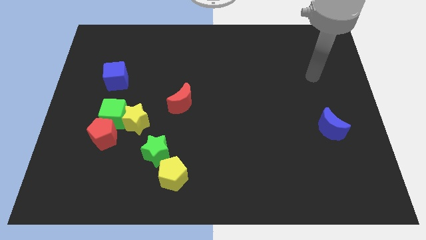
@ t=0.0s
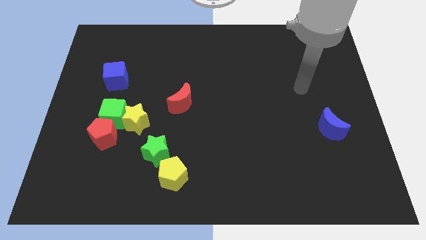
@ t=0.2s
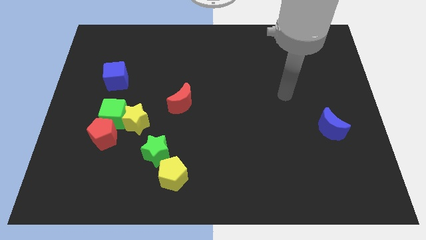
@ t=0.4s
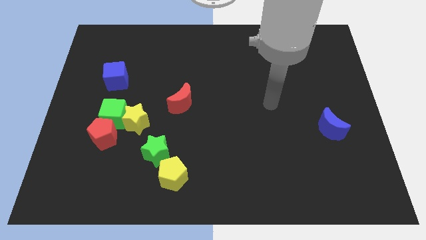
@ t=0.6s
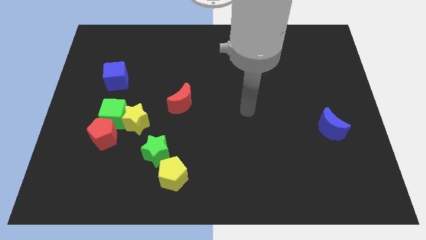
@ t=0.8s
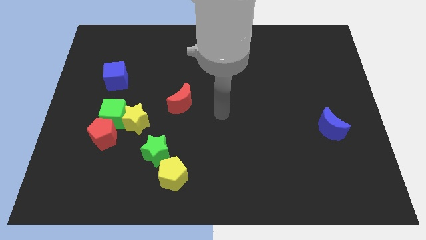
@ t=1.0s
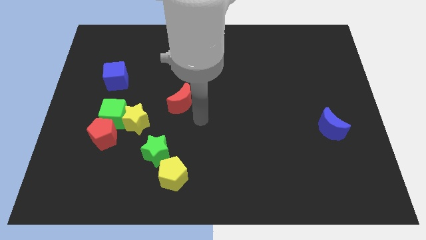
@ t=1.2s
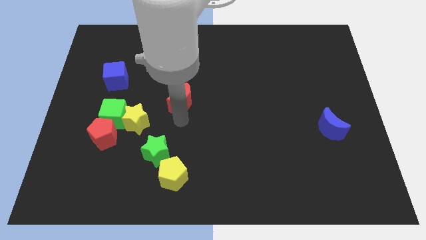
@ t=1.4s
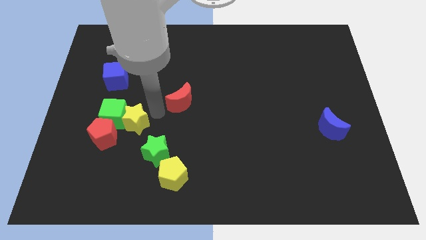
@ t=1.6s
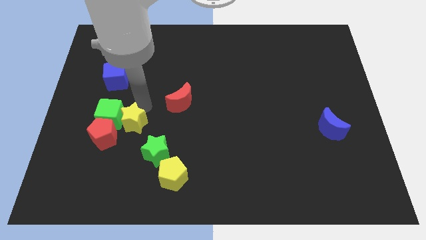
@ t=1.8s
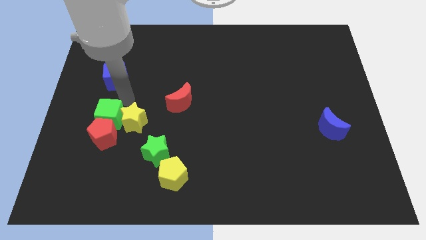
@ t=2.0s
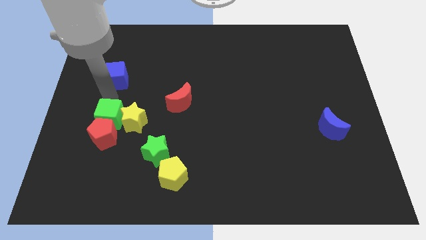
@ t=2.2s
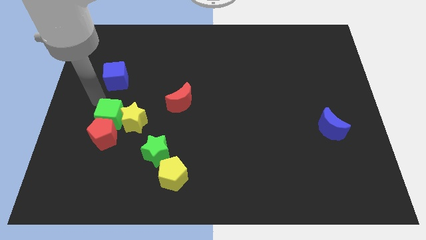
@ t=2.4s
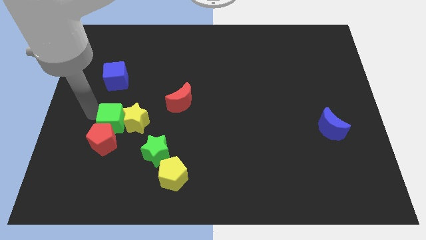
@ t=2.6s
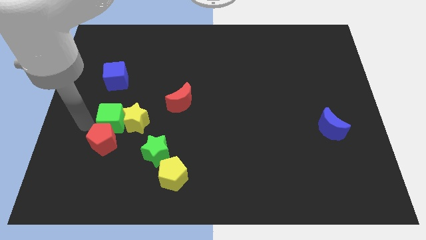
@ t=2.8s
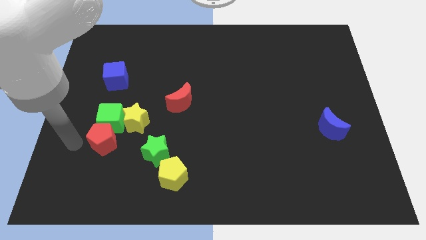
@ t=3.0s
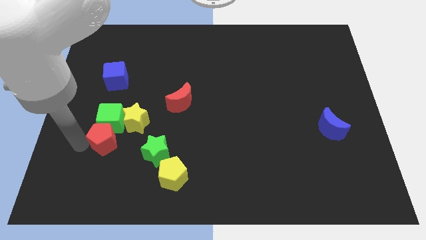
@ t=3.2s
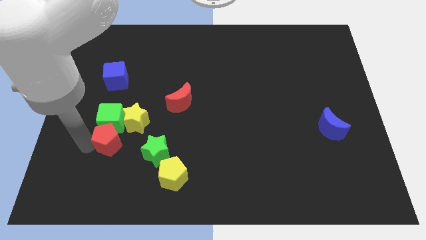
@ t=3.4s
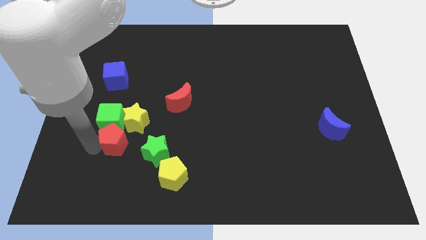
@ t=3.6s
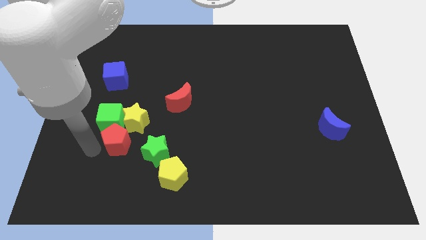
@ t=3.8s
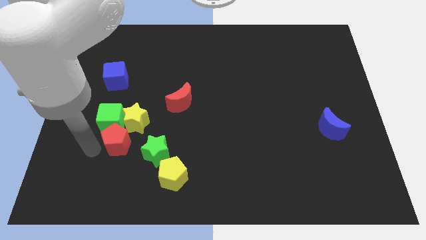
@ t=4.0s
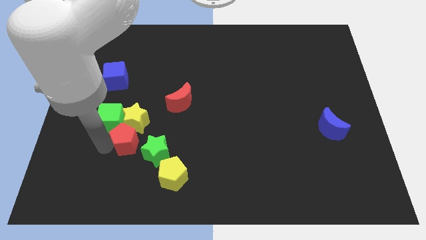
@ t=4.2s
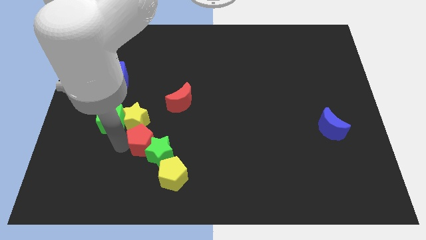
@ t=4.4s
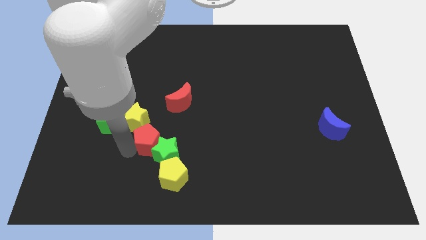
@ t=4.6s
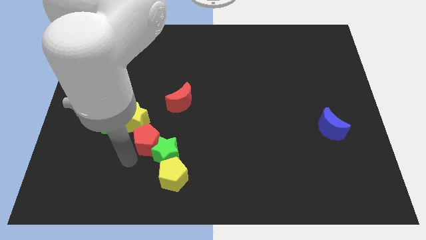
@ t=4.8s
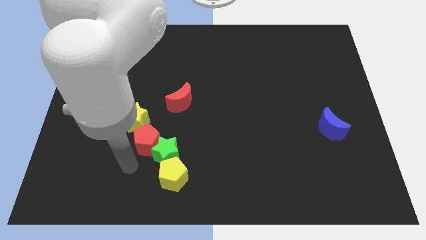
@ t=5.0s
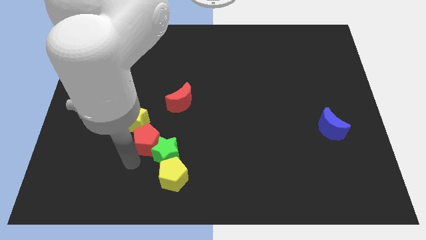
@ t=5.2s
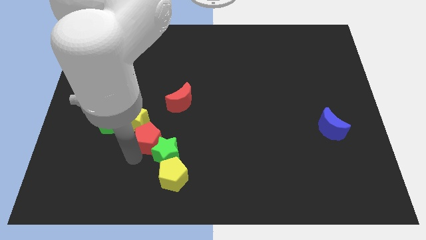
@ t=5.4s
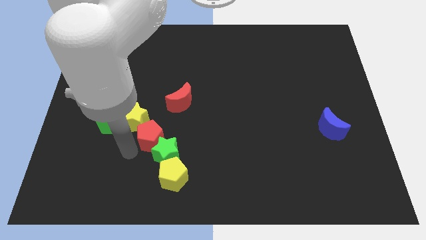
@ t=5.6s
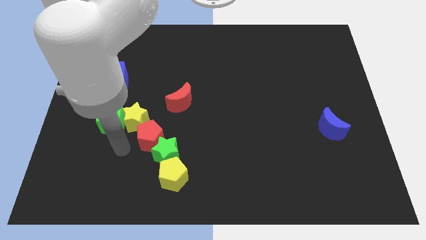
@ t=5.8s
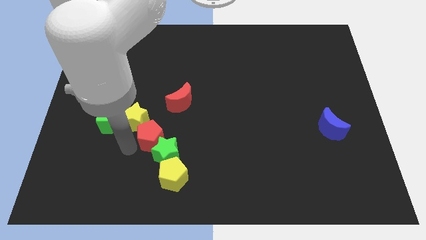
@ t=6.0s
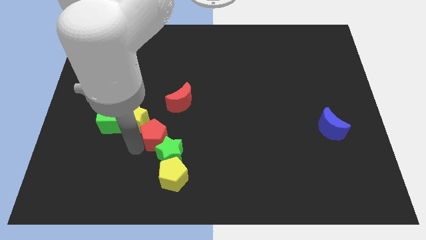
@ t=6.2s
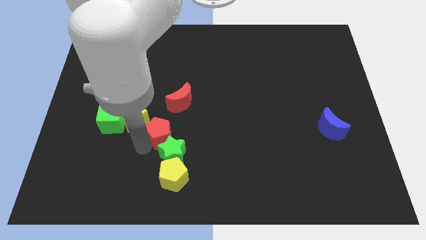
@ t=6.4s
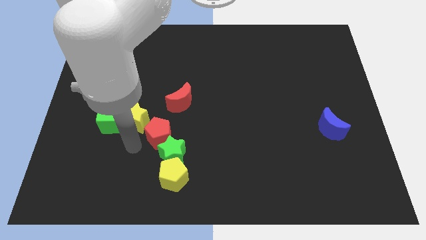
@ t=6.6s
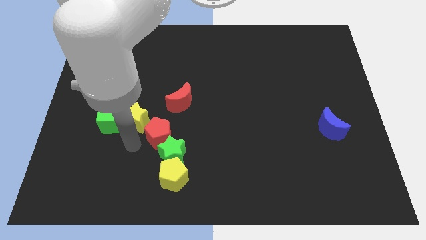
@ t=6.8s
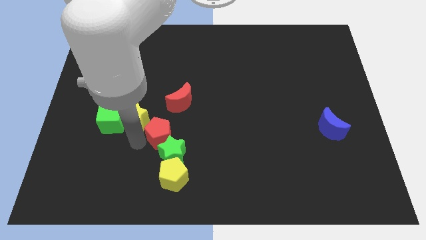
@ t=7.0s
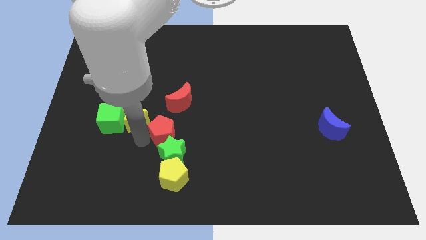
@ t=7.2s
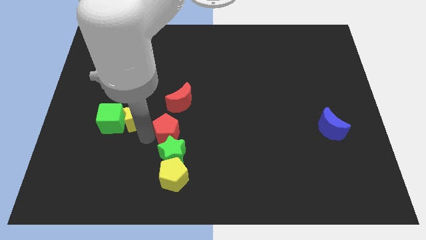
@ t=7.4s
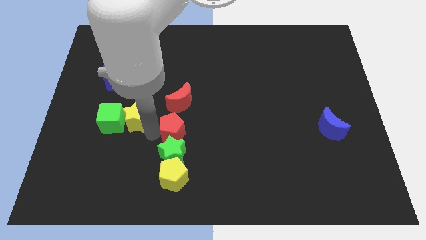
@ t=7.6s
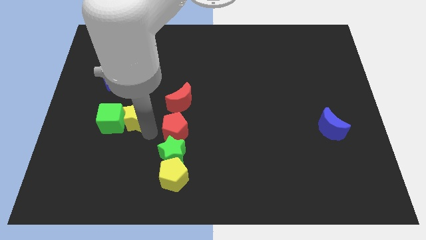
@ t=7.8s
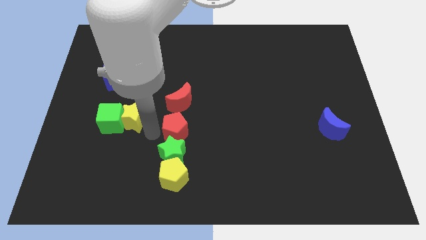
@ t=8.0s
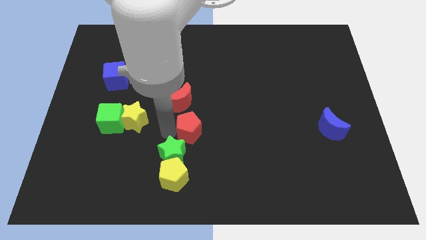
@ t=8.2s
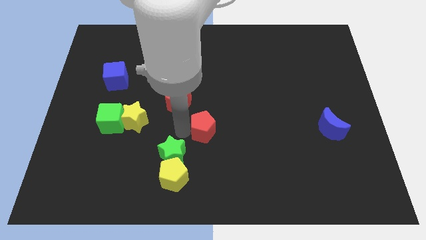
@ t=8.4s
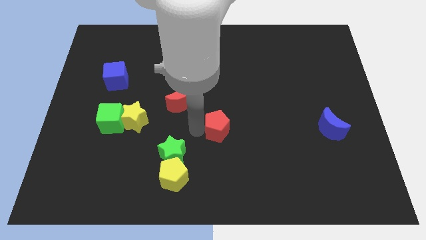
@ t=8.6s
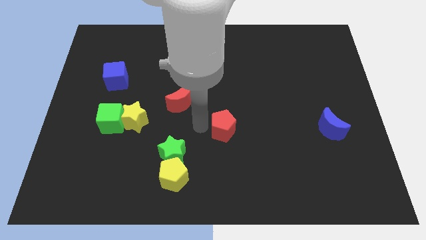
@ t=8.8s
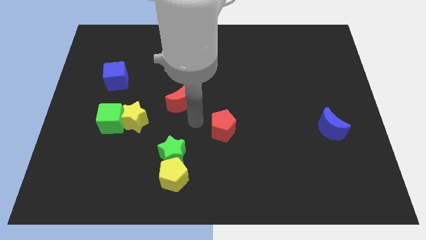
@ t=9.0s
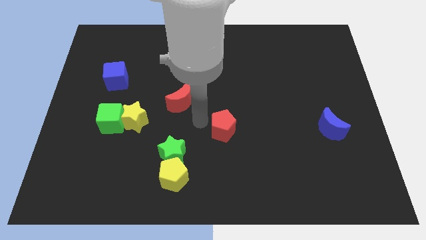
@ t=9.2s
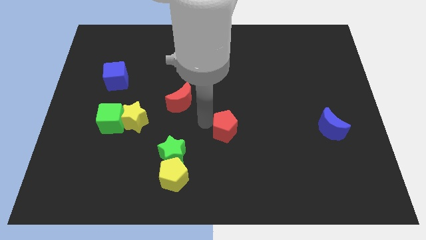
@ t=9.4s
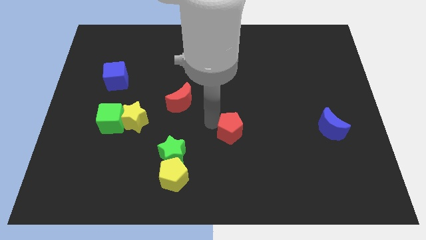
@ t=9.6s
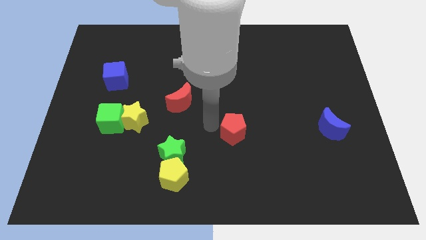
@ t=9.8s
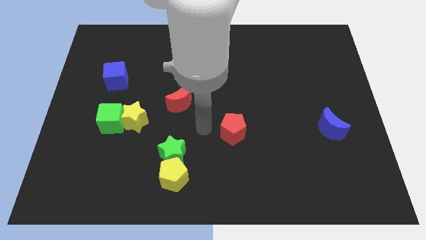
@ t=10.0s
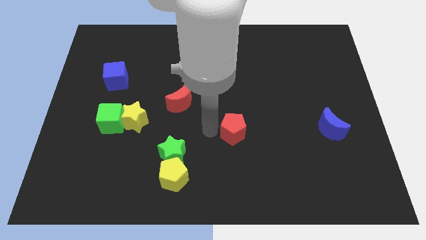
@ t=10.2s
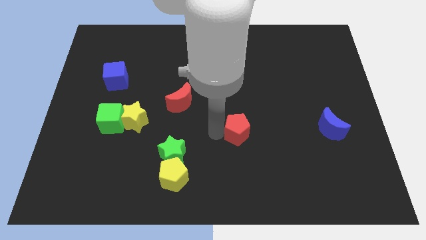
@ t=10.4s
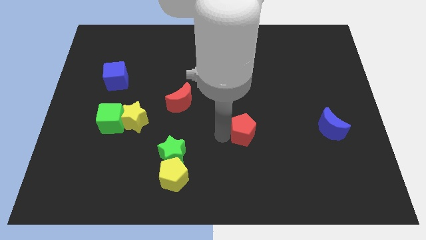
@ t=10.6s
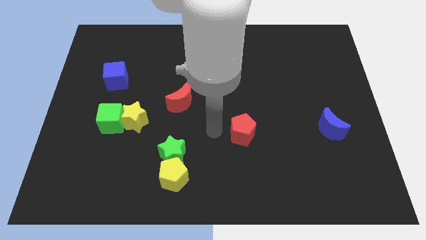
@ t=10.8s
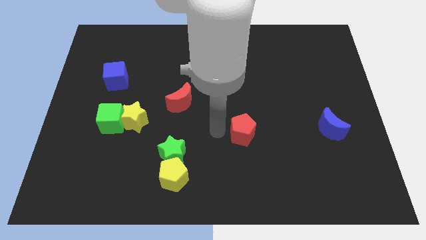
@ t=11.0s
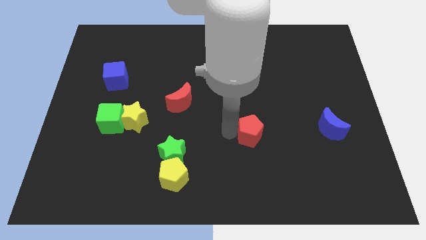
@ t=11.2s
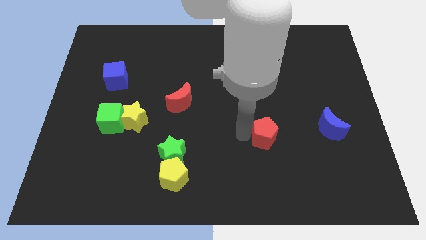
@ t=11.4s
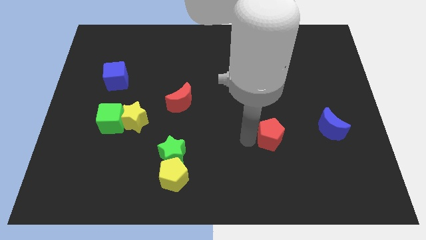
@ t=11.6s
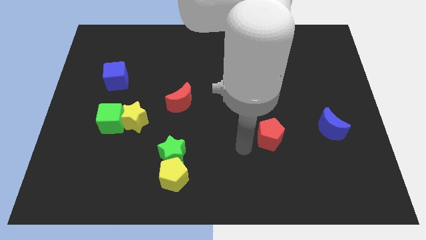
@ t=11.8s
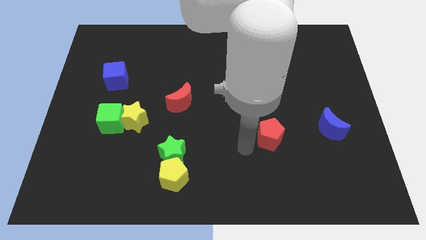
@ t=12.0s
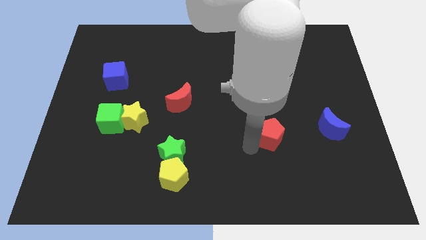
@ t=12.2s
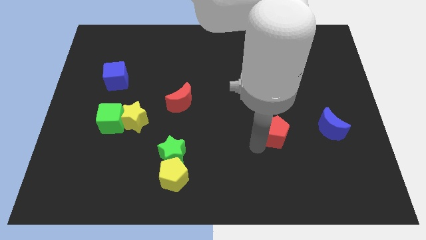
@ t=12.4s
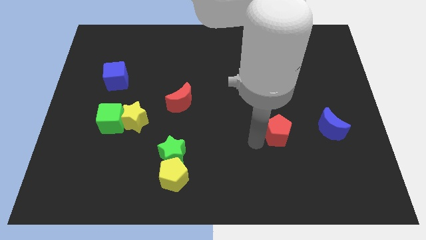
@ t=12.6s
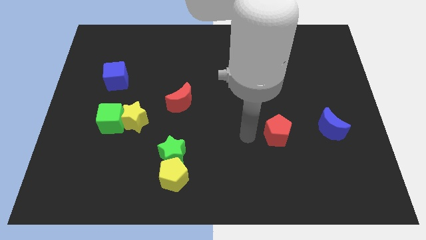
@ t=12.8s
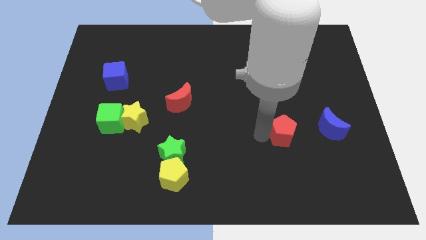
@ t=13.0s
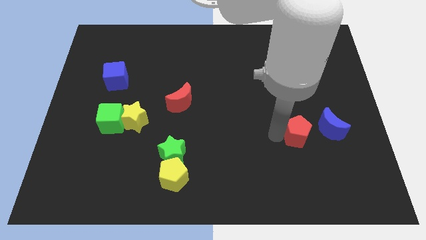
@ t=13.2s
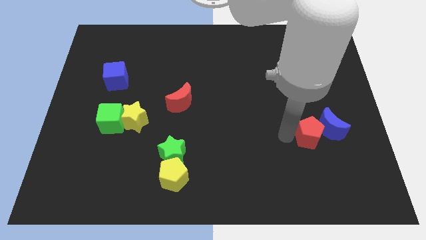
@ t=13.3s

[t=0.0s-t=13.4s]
move the red pentagon next to the blue moon
